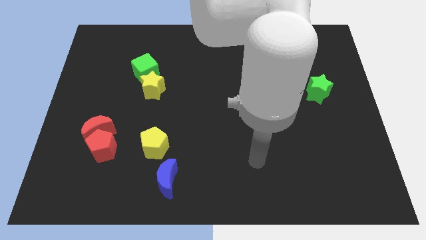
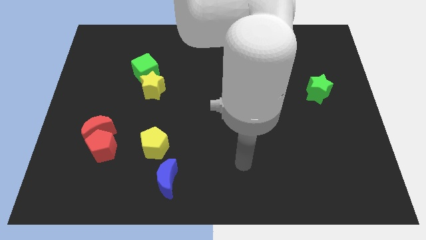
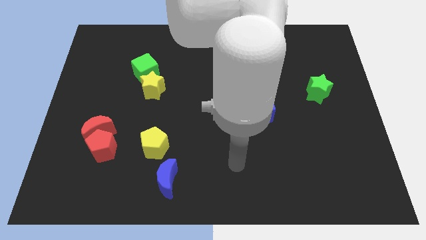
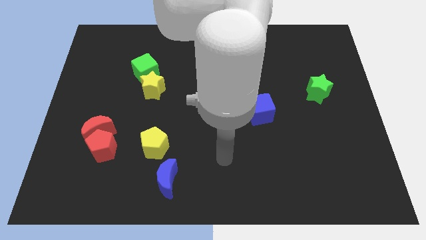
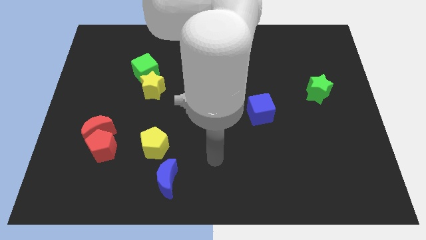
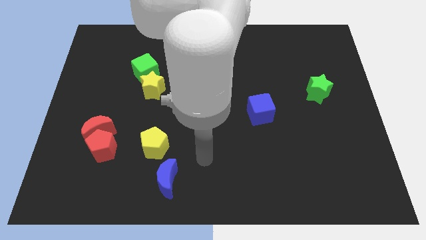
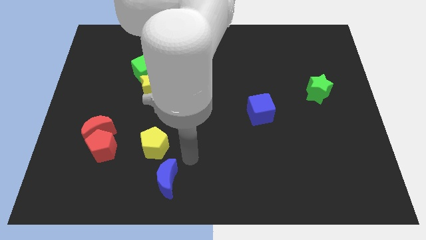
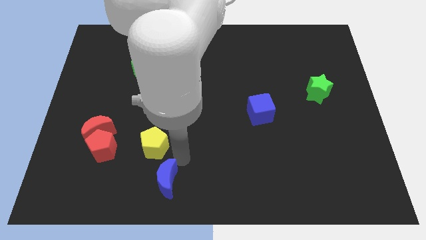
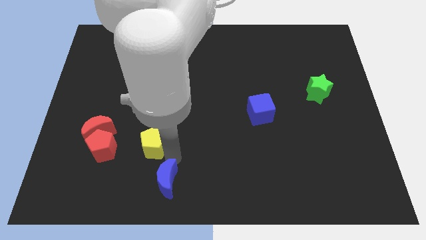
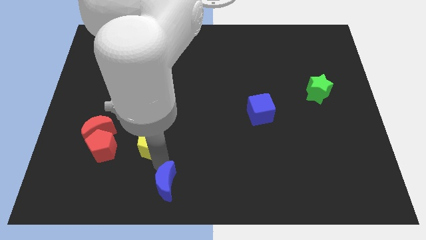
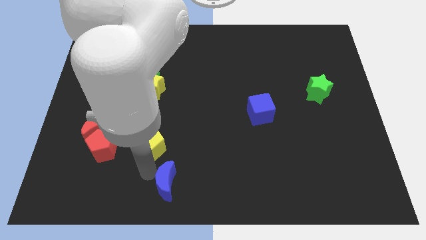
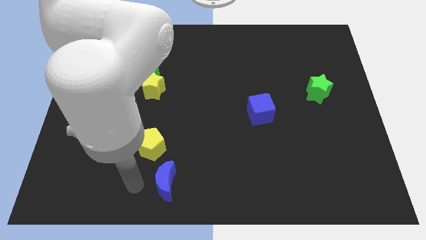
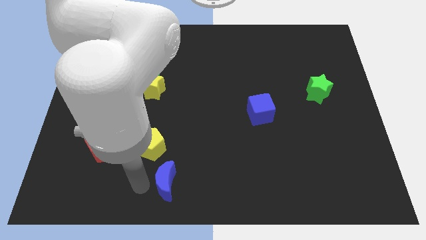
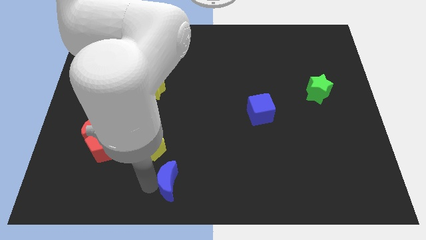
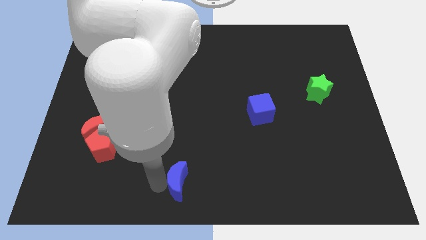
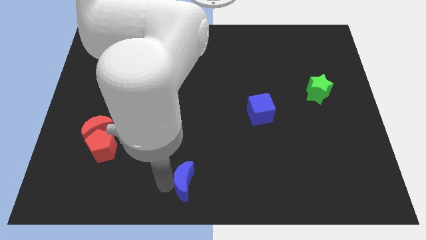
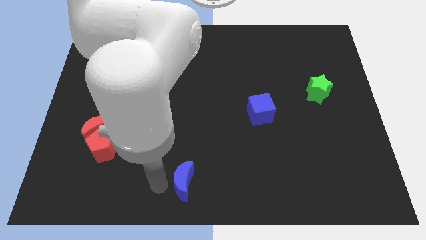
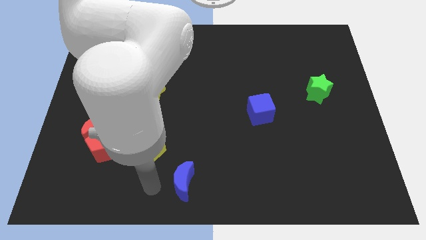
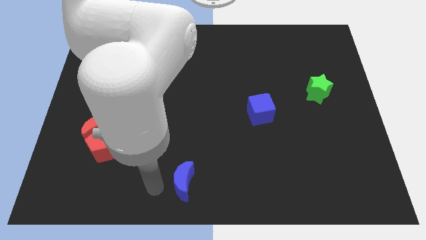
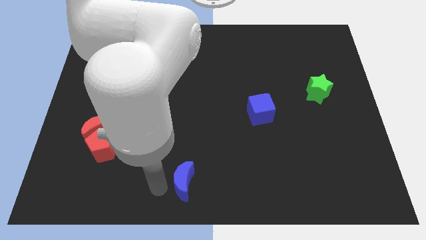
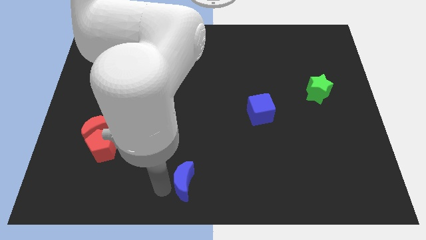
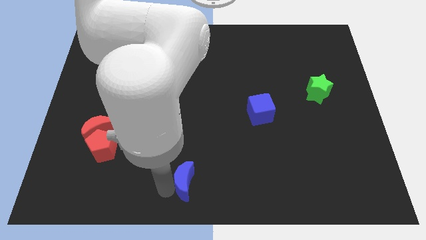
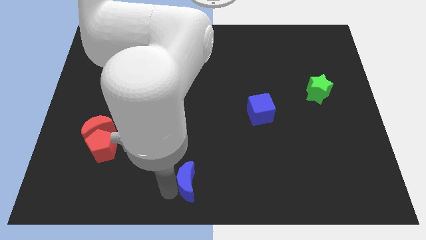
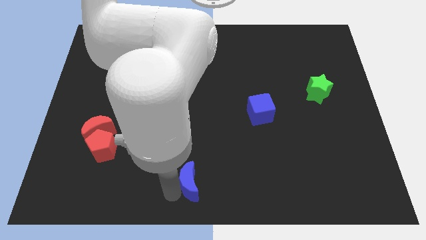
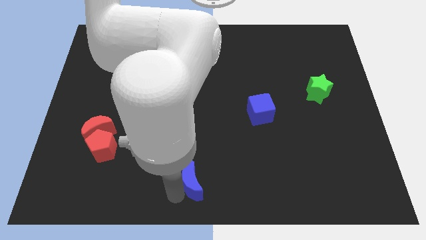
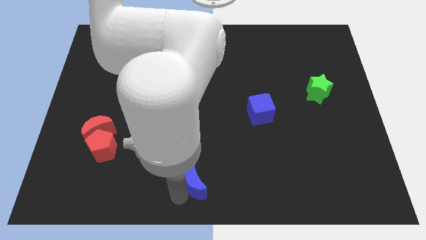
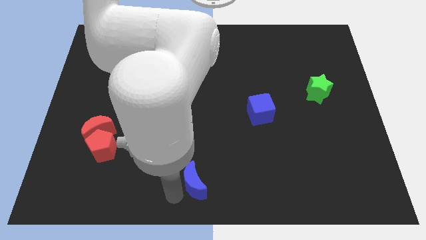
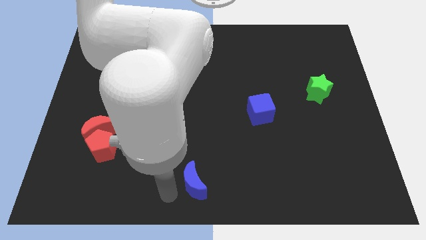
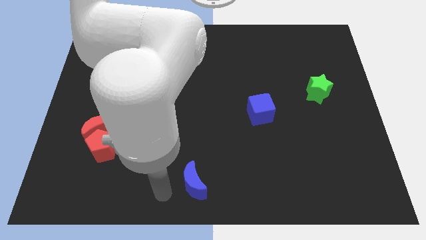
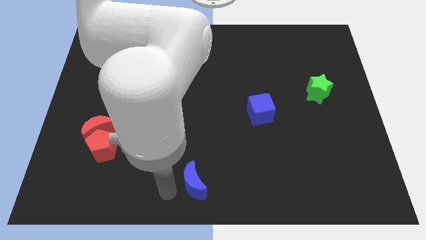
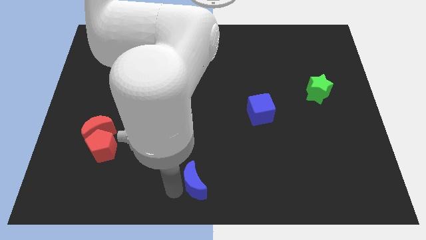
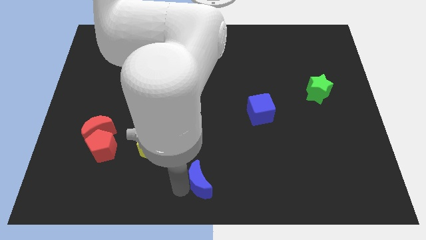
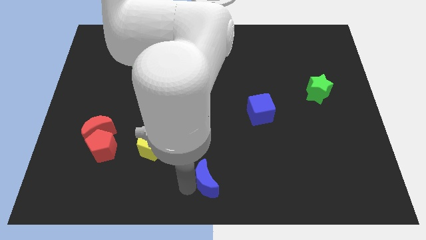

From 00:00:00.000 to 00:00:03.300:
push the blue moon right a bit

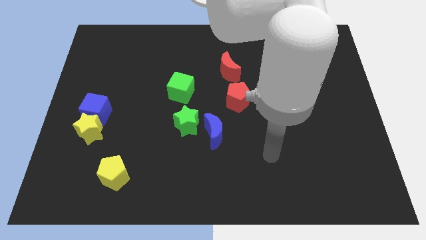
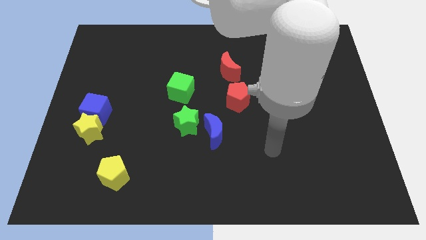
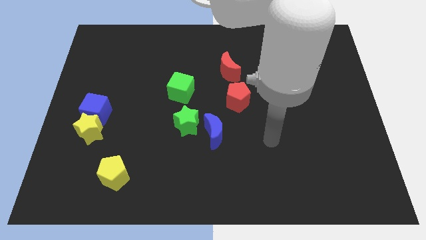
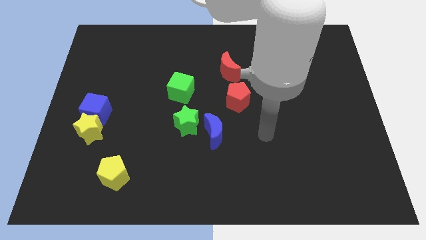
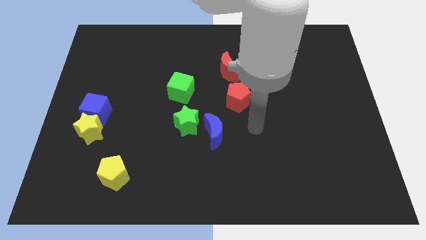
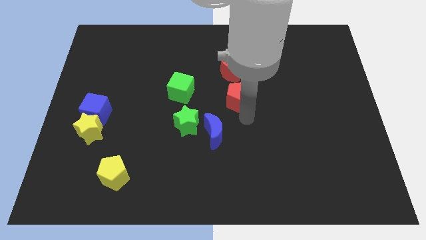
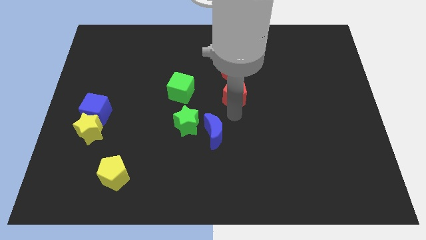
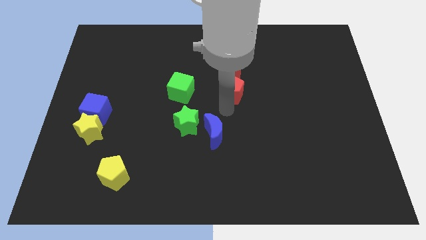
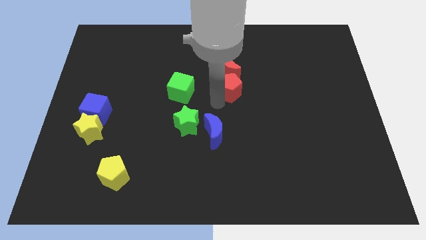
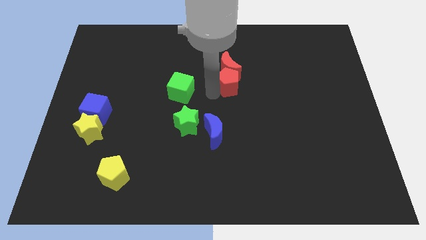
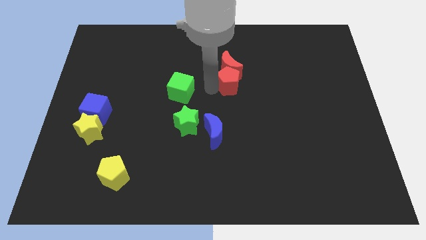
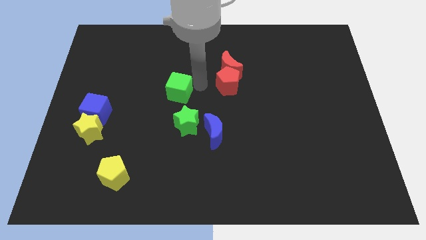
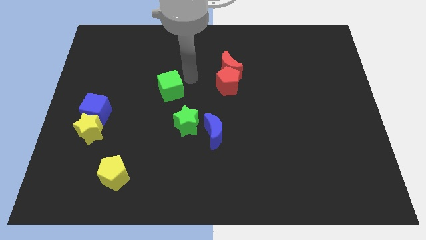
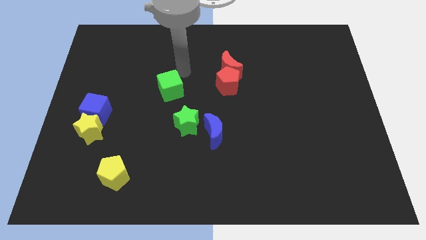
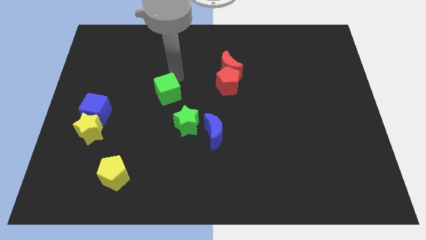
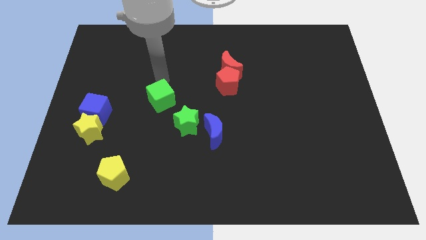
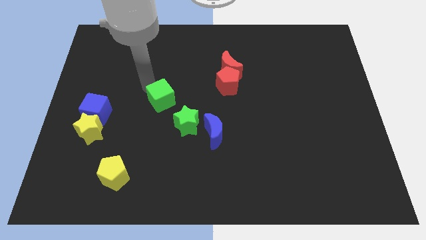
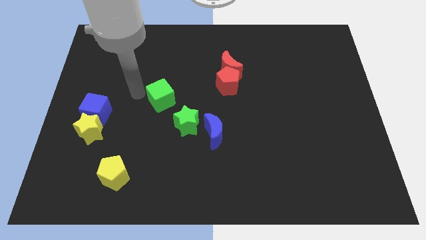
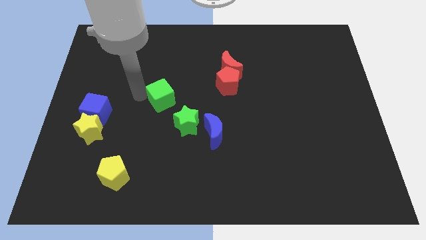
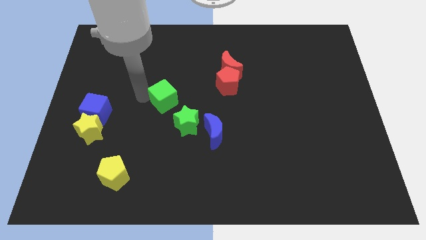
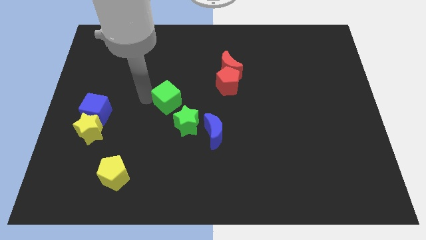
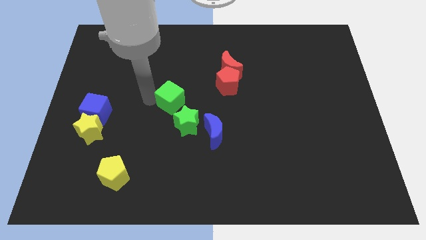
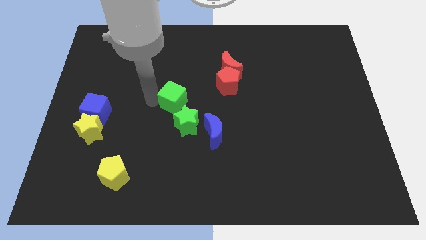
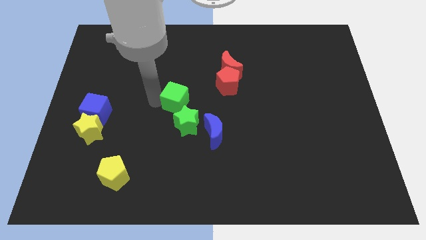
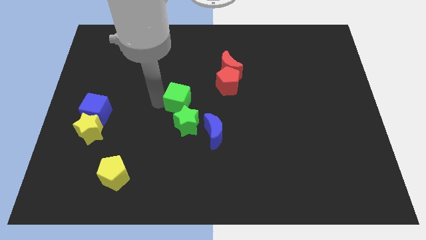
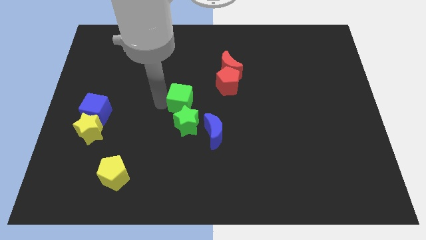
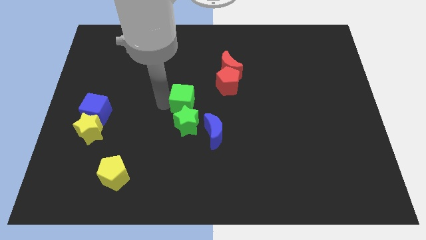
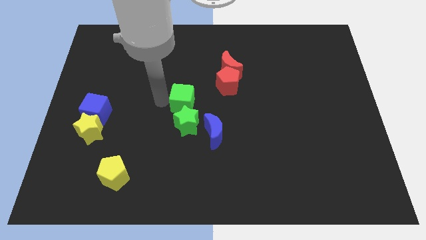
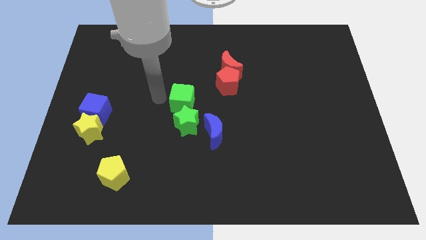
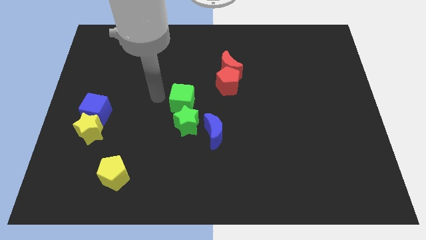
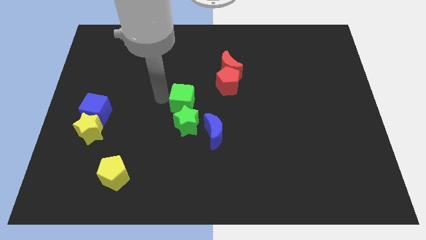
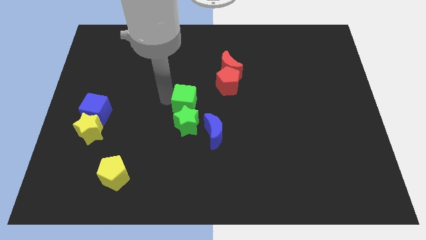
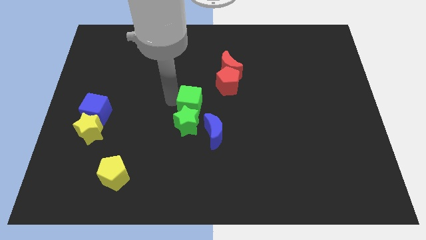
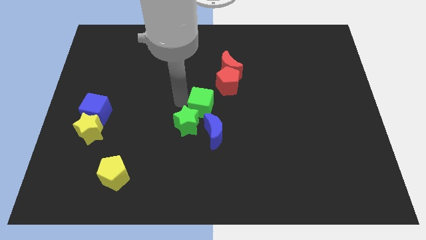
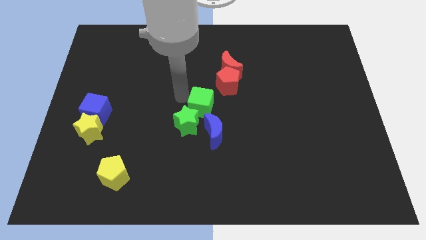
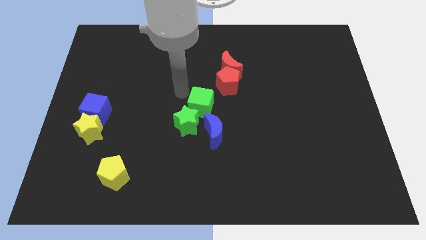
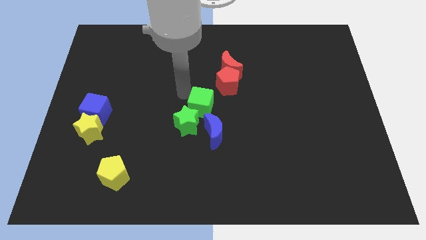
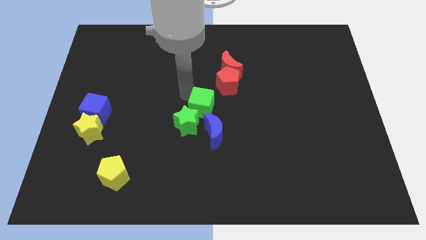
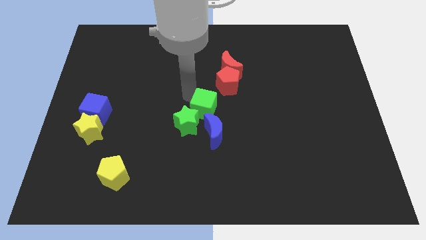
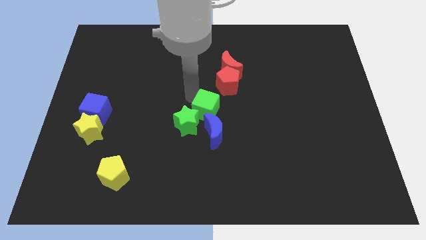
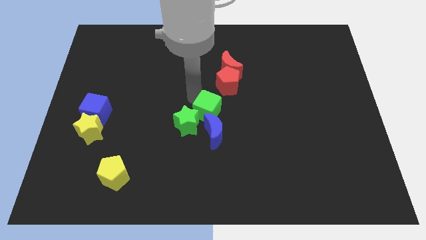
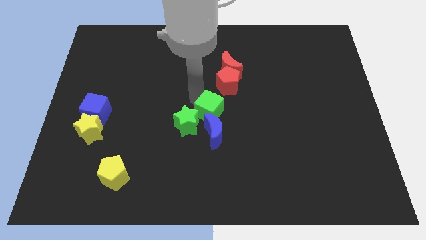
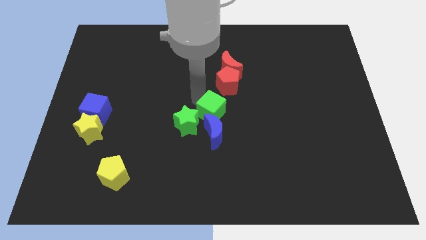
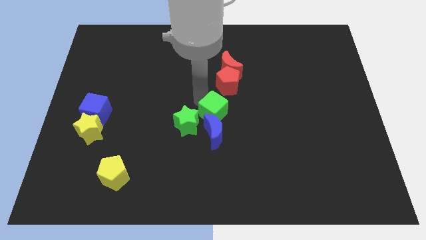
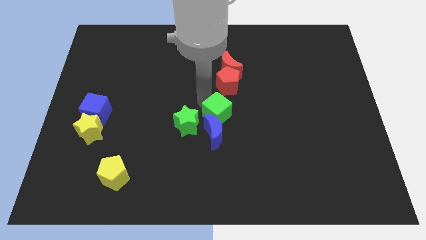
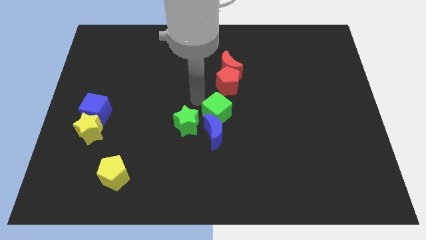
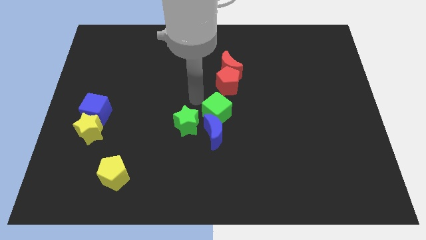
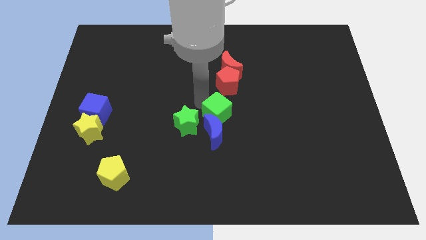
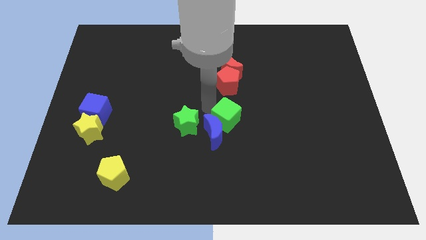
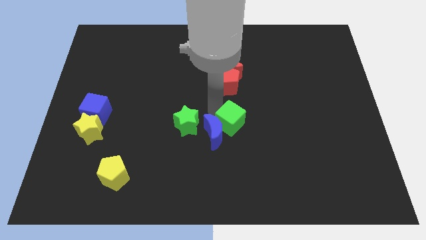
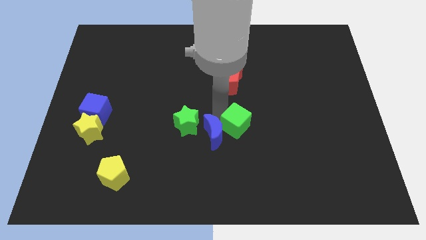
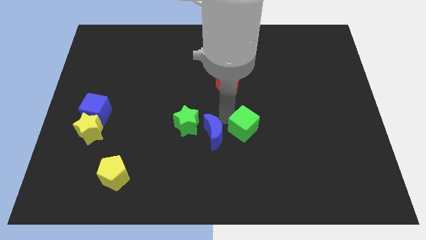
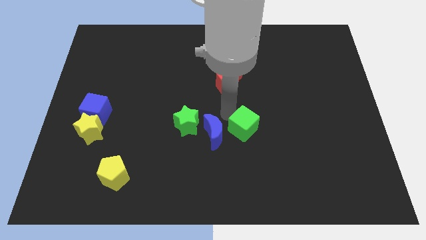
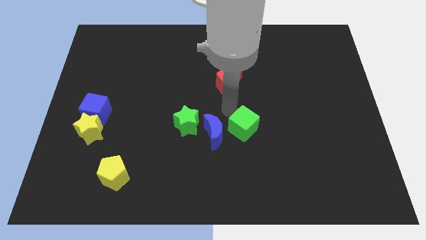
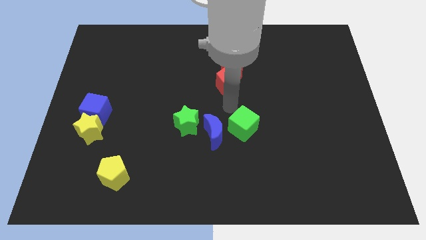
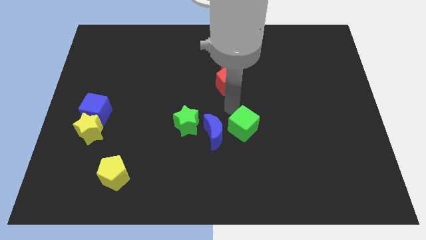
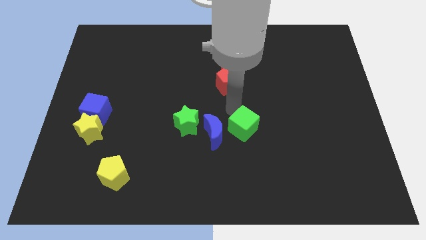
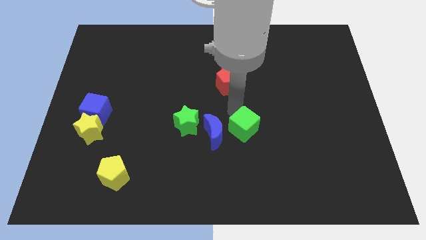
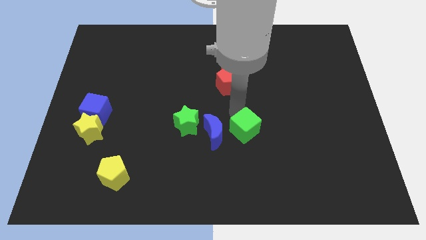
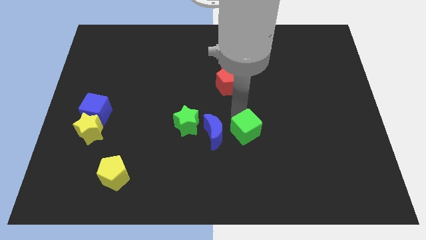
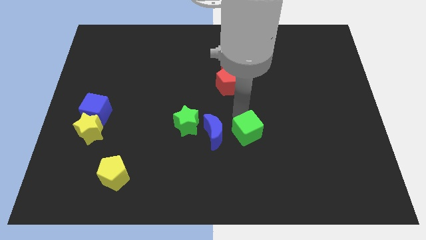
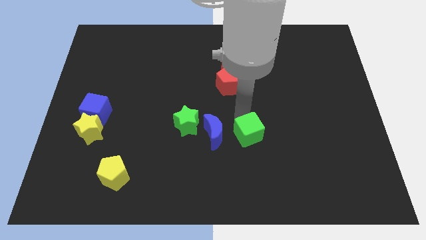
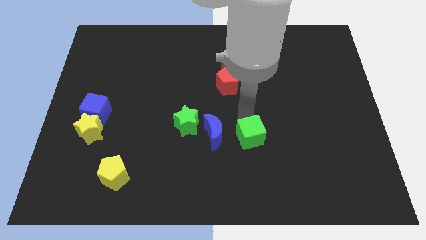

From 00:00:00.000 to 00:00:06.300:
slide the green cube down and right
